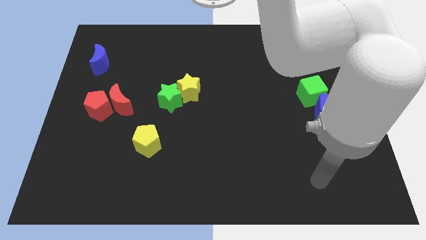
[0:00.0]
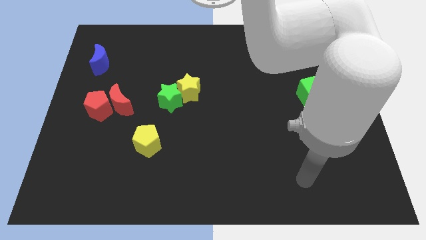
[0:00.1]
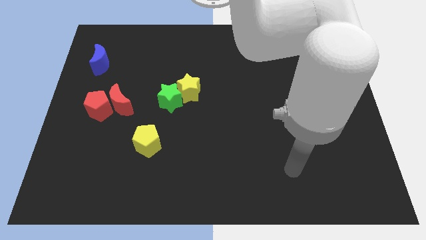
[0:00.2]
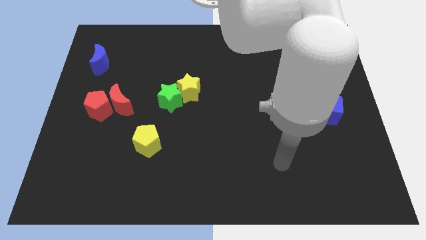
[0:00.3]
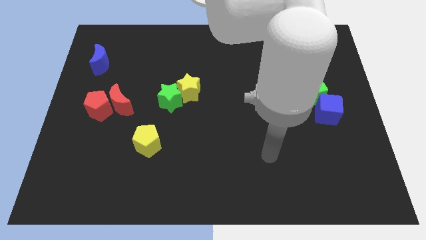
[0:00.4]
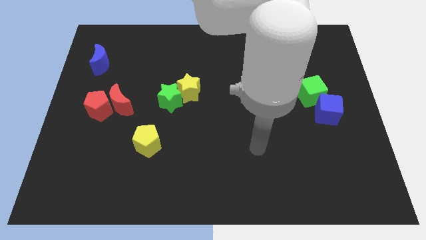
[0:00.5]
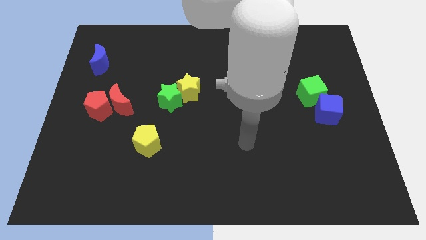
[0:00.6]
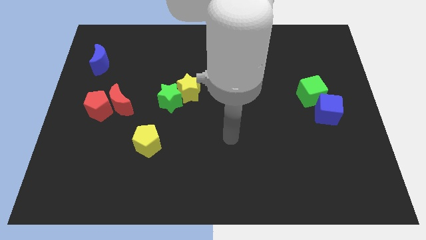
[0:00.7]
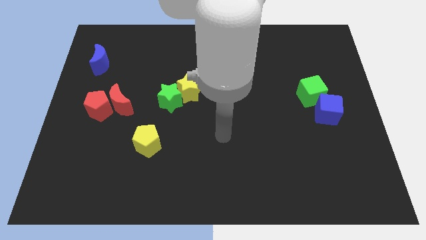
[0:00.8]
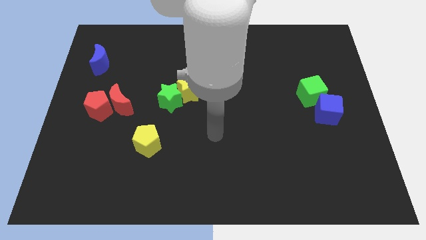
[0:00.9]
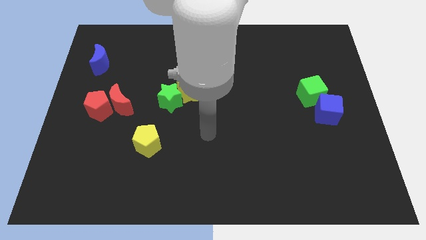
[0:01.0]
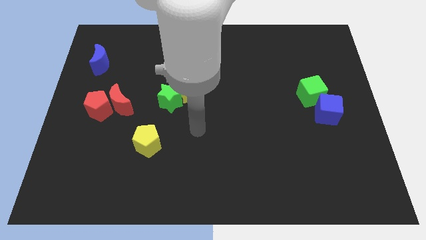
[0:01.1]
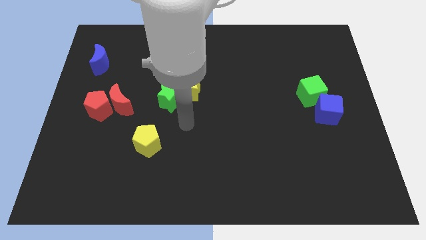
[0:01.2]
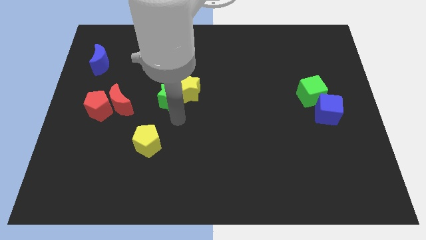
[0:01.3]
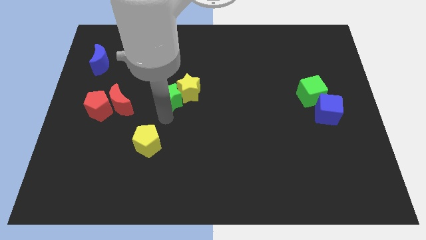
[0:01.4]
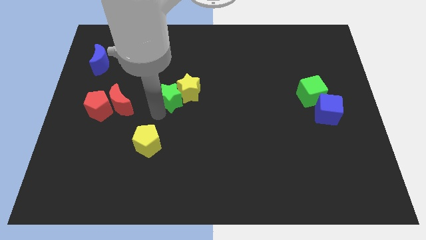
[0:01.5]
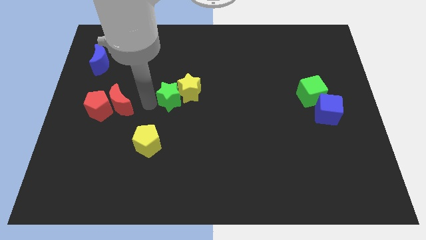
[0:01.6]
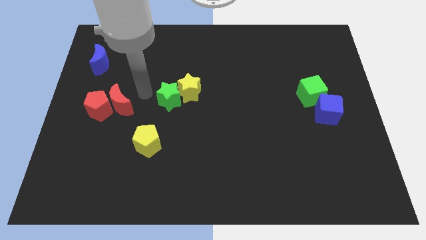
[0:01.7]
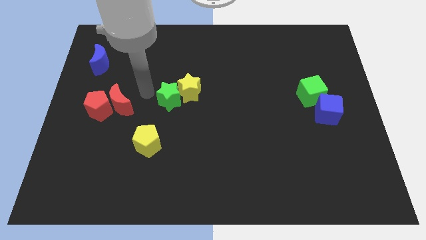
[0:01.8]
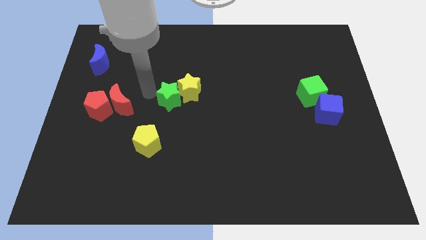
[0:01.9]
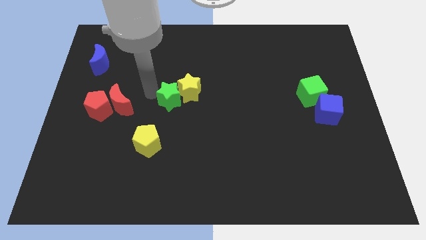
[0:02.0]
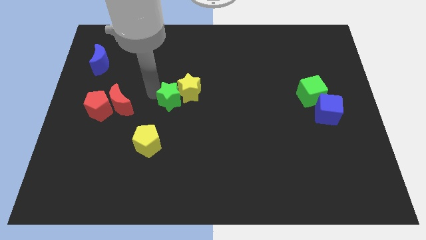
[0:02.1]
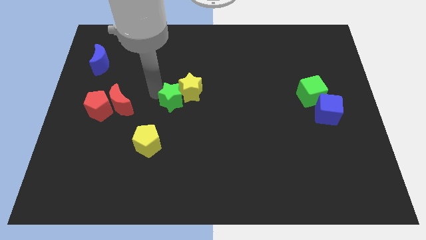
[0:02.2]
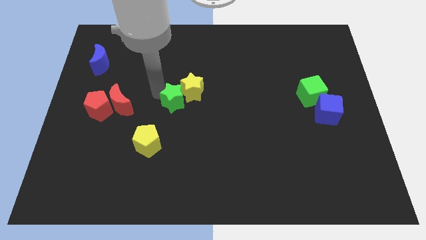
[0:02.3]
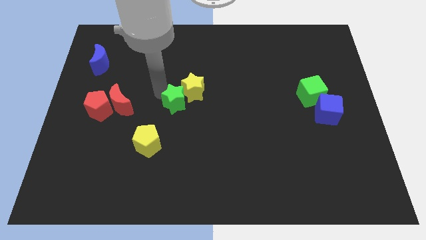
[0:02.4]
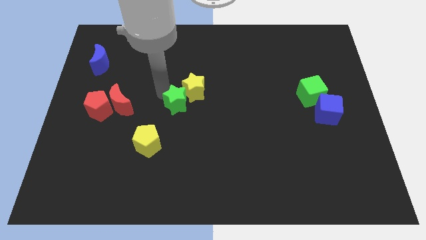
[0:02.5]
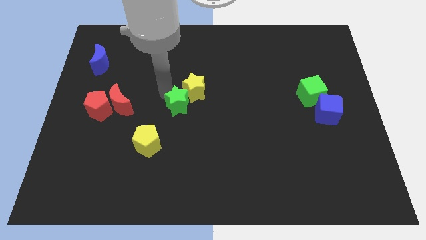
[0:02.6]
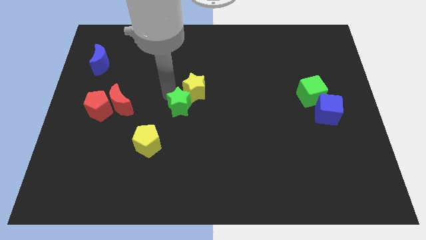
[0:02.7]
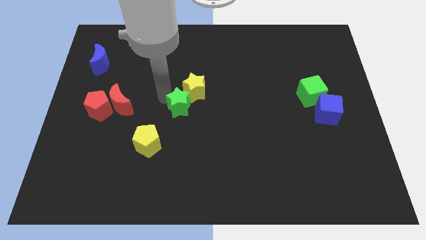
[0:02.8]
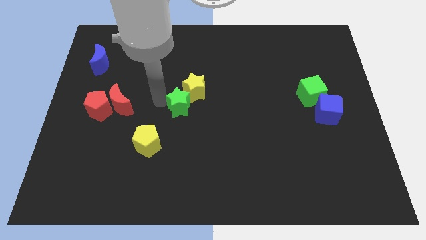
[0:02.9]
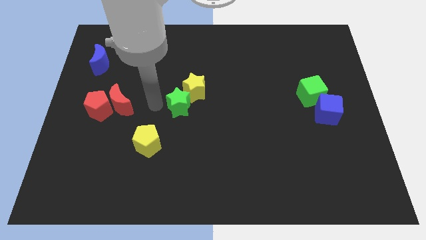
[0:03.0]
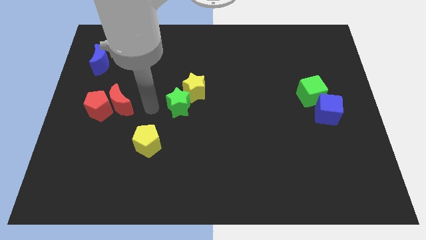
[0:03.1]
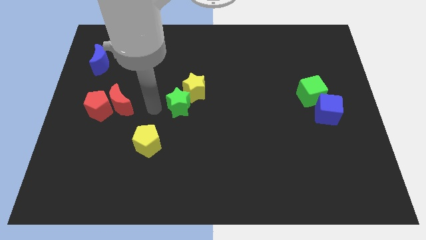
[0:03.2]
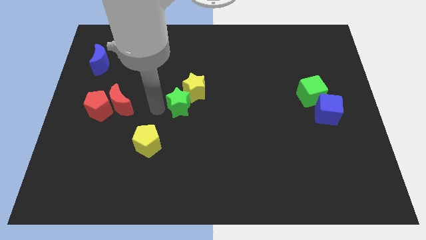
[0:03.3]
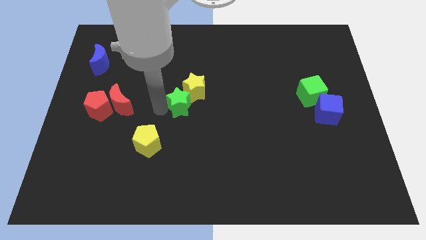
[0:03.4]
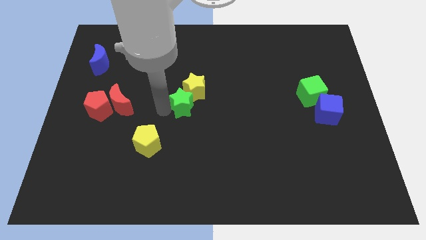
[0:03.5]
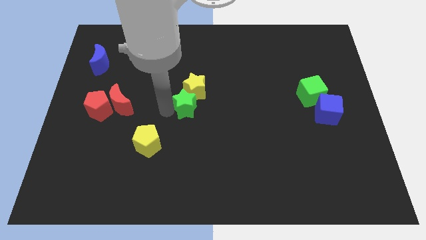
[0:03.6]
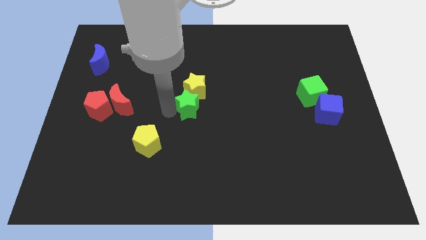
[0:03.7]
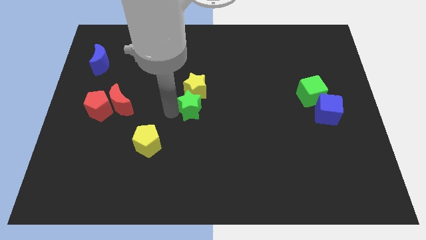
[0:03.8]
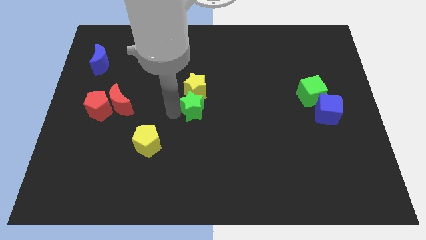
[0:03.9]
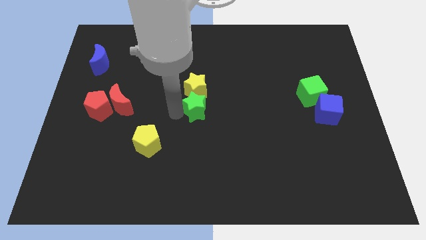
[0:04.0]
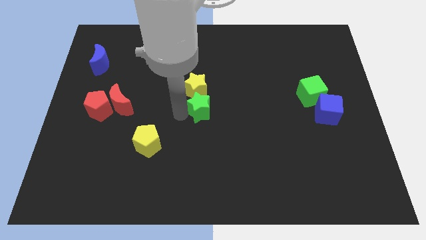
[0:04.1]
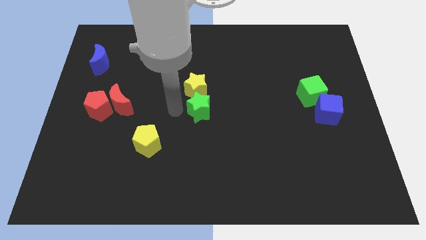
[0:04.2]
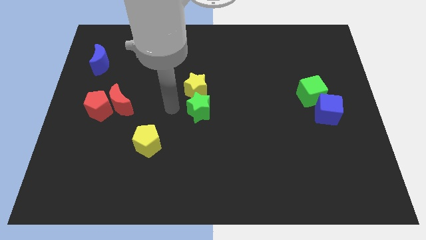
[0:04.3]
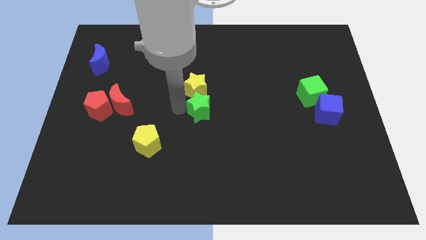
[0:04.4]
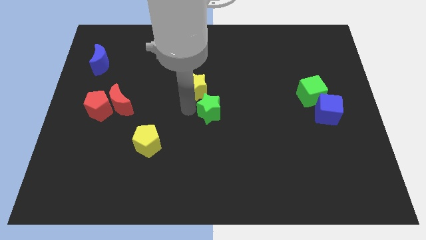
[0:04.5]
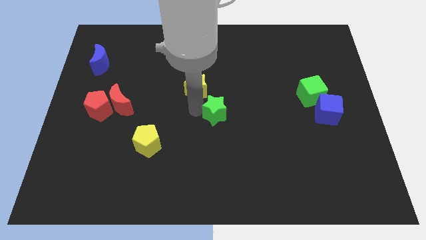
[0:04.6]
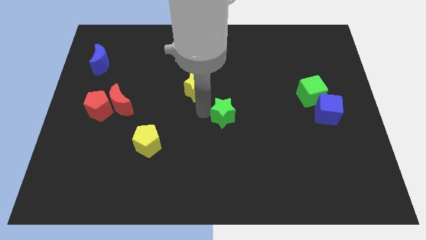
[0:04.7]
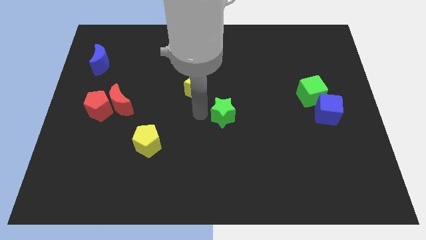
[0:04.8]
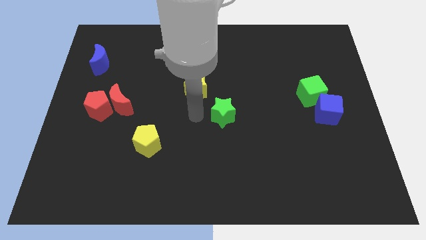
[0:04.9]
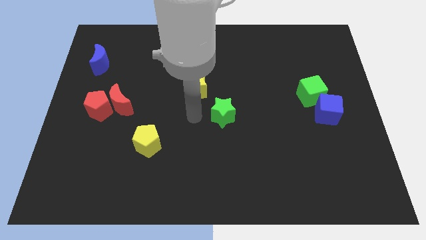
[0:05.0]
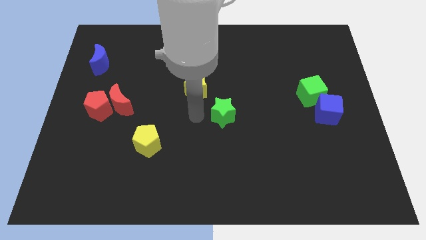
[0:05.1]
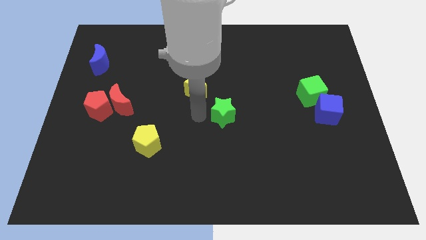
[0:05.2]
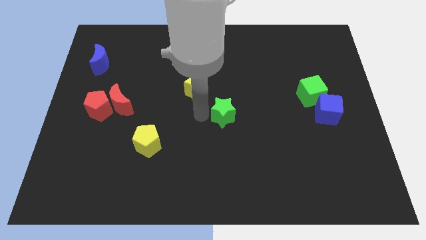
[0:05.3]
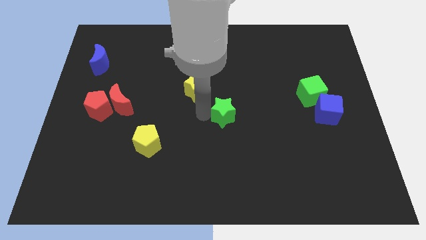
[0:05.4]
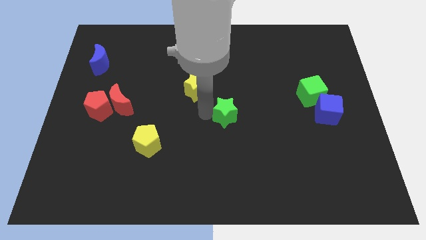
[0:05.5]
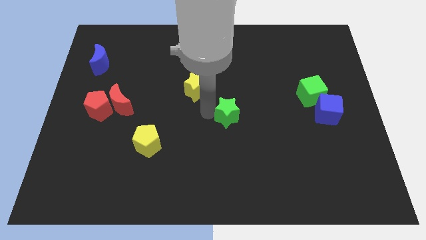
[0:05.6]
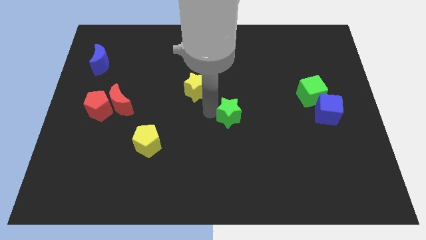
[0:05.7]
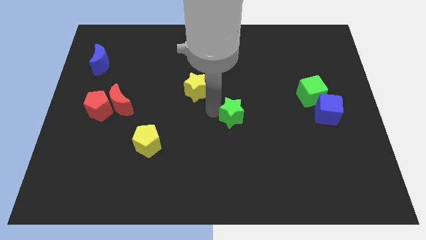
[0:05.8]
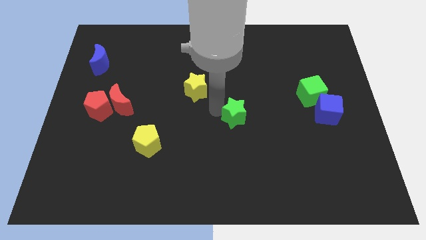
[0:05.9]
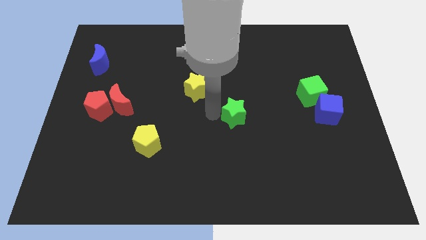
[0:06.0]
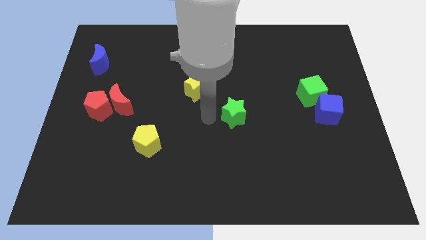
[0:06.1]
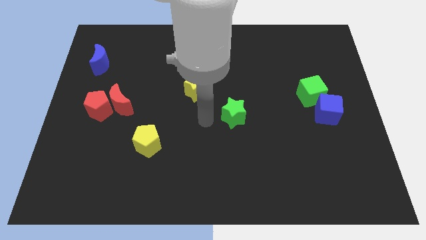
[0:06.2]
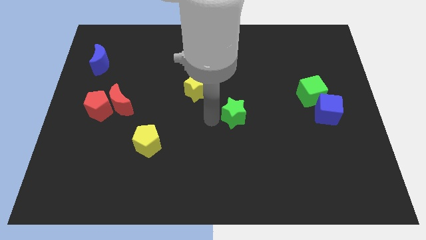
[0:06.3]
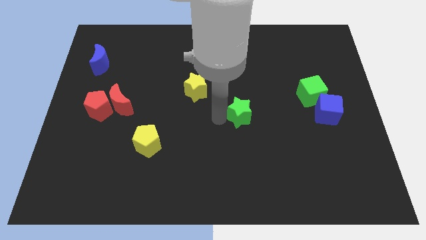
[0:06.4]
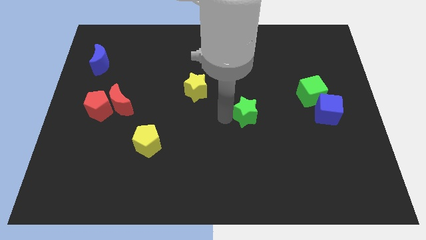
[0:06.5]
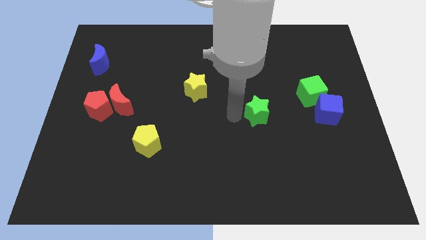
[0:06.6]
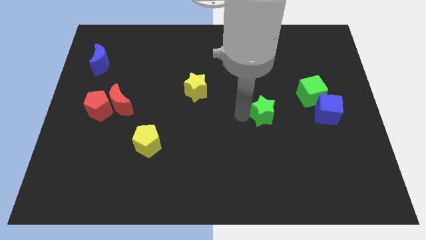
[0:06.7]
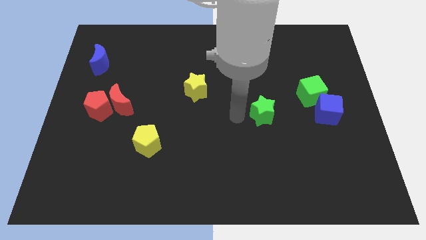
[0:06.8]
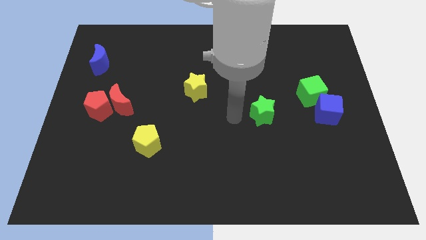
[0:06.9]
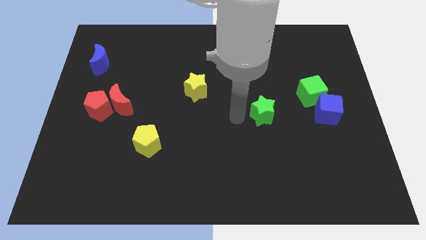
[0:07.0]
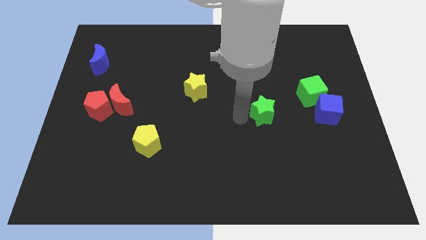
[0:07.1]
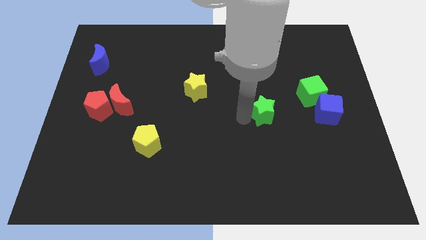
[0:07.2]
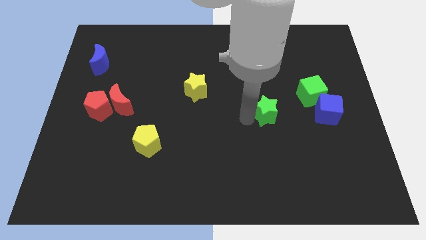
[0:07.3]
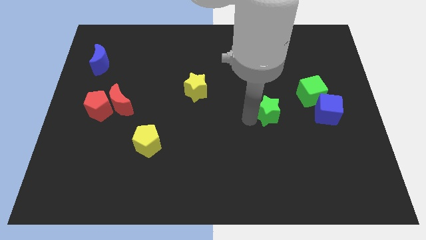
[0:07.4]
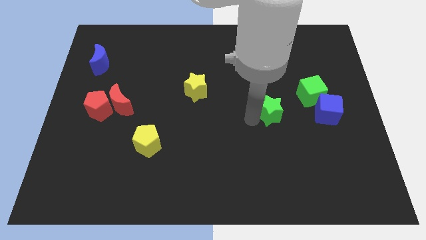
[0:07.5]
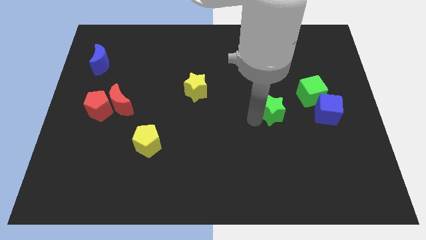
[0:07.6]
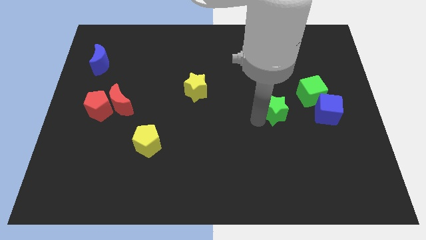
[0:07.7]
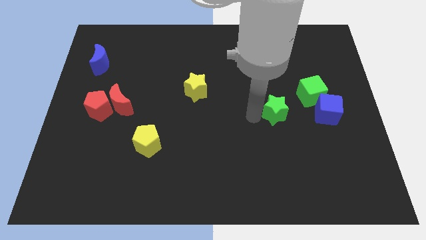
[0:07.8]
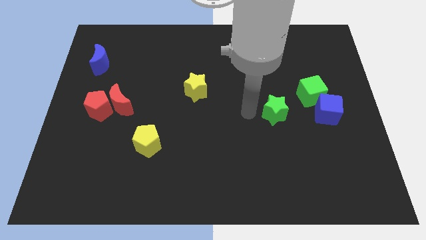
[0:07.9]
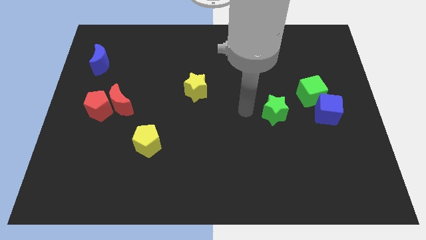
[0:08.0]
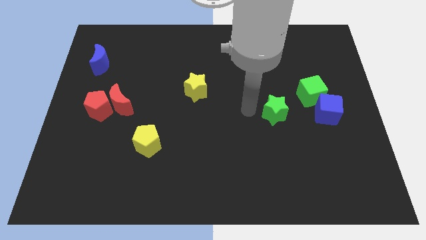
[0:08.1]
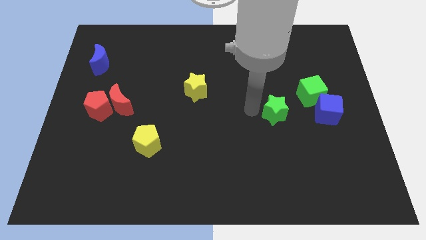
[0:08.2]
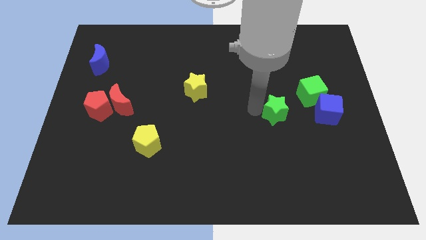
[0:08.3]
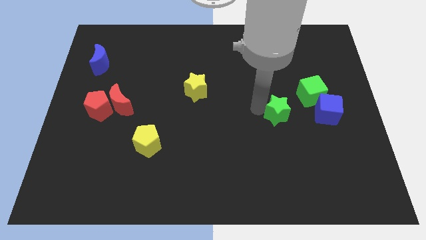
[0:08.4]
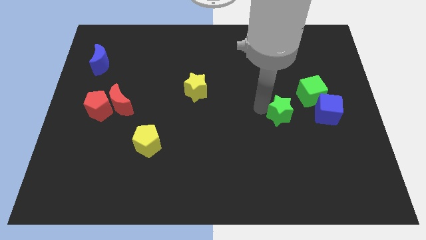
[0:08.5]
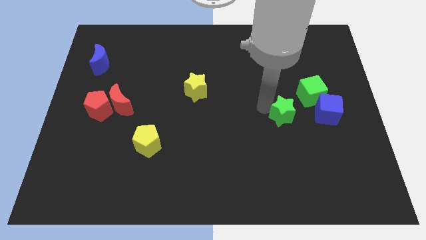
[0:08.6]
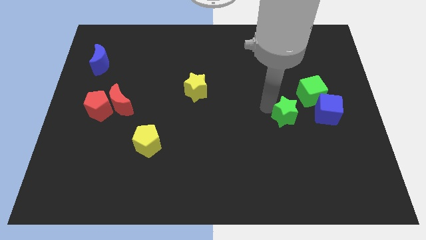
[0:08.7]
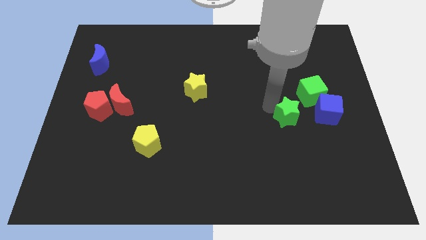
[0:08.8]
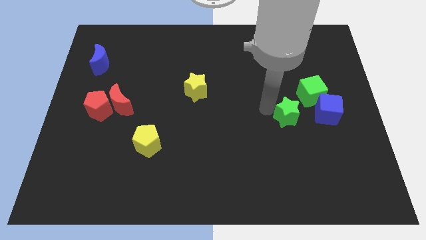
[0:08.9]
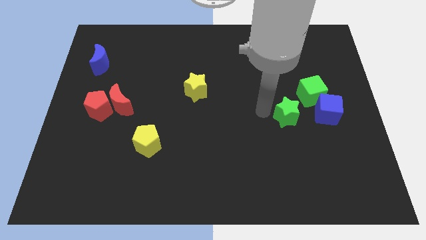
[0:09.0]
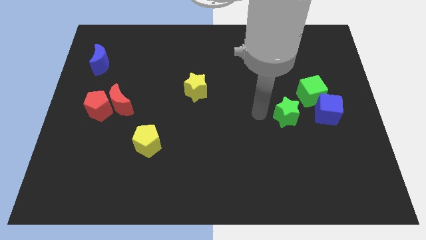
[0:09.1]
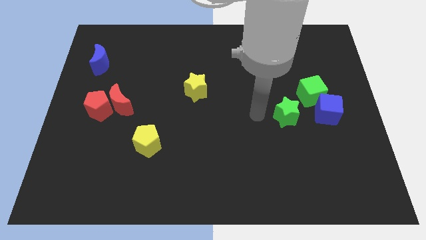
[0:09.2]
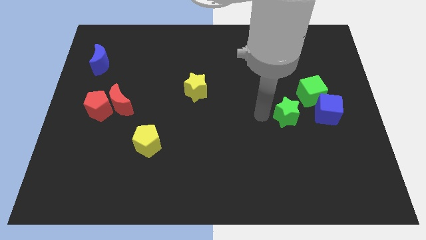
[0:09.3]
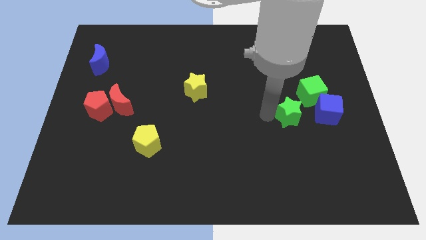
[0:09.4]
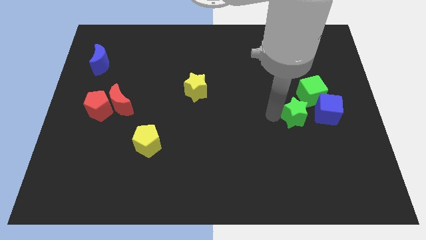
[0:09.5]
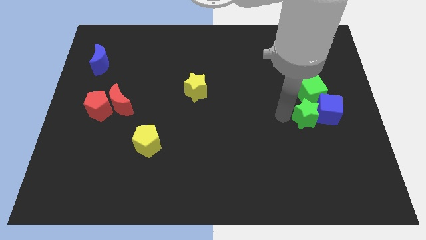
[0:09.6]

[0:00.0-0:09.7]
push the green star to the blue cube
